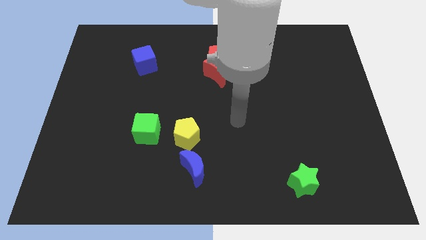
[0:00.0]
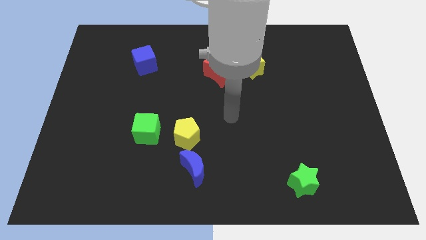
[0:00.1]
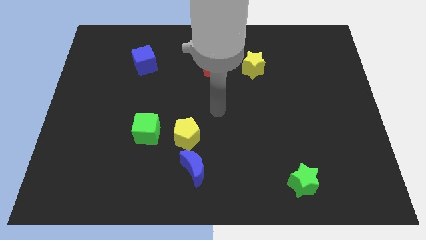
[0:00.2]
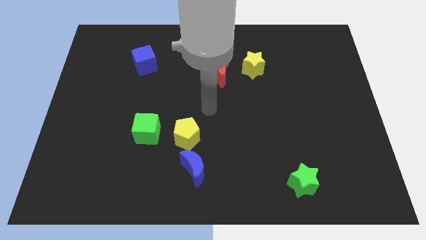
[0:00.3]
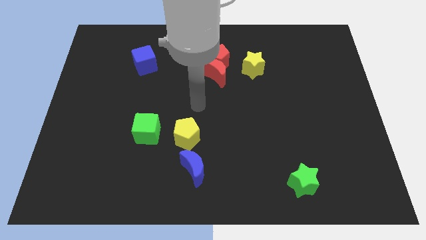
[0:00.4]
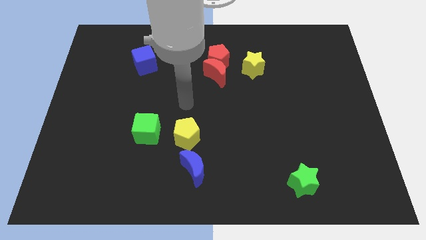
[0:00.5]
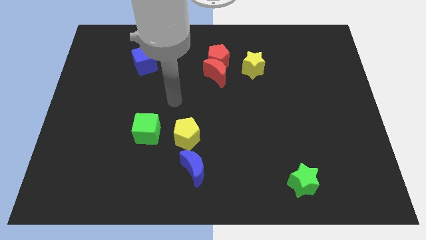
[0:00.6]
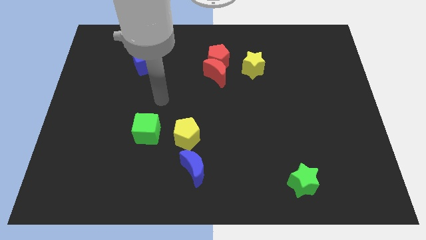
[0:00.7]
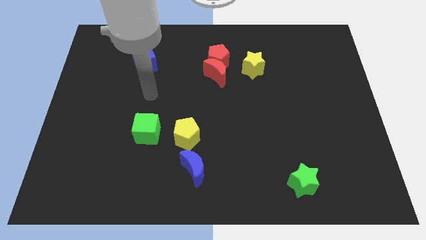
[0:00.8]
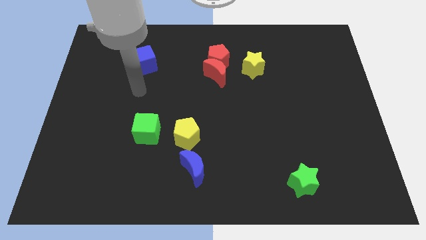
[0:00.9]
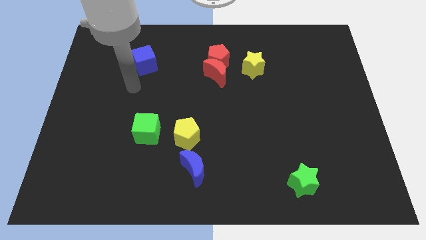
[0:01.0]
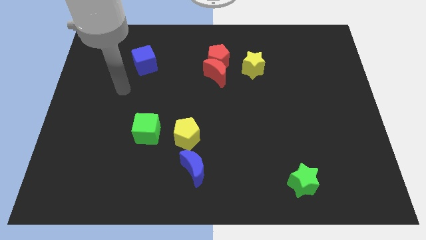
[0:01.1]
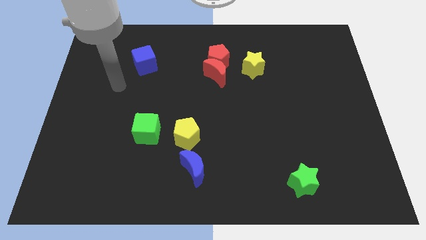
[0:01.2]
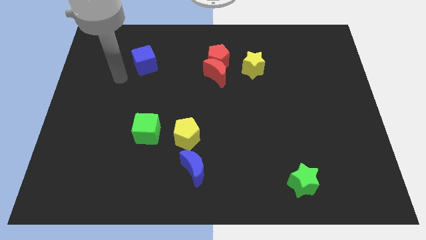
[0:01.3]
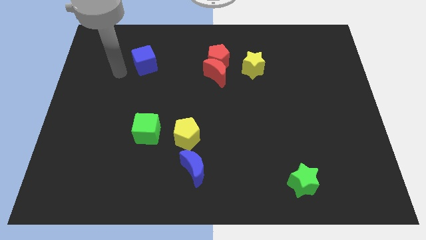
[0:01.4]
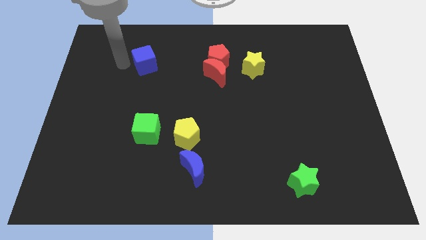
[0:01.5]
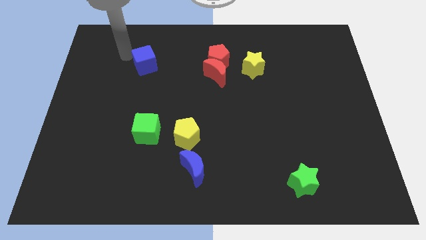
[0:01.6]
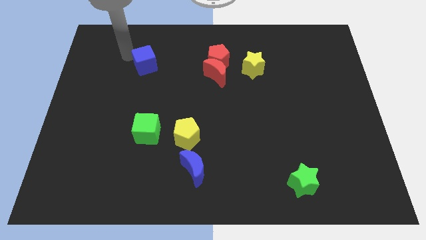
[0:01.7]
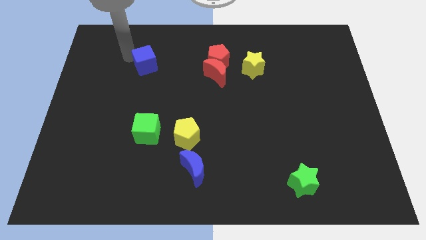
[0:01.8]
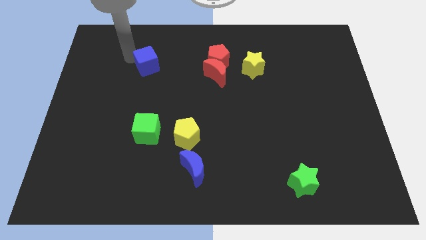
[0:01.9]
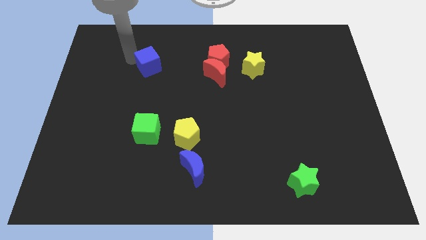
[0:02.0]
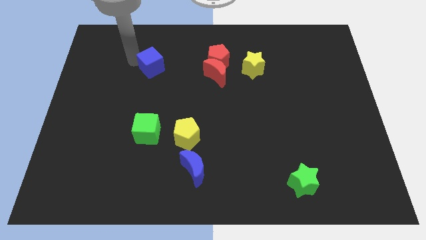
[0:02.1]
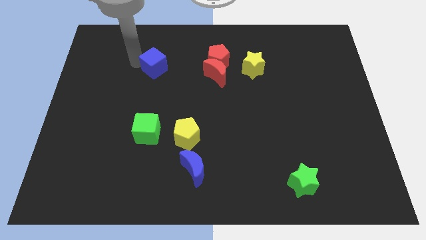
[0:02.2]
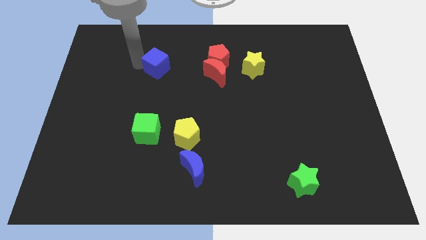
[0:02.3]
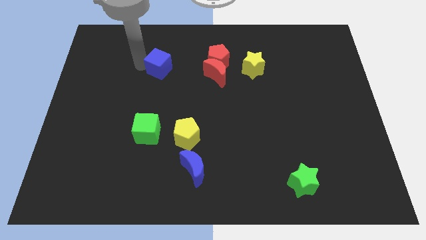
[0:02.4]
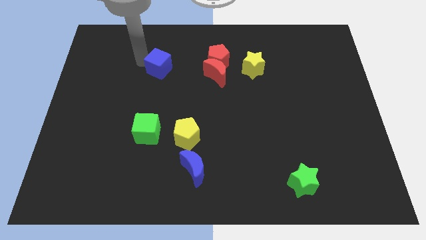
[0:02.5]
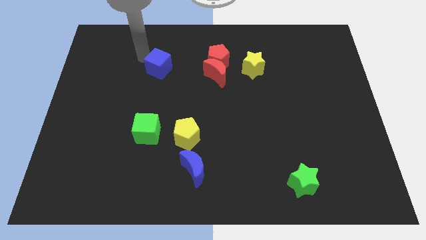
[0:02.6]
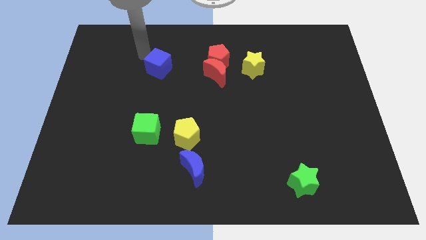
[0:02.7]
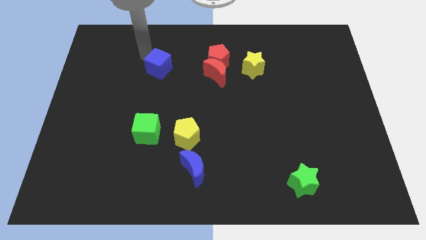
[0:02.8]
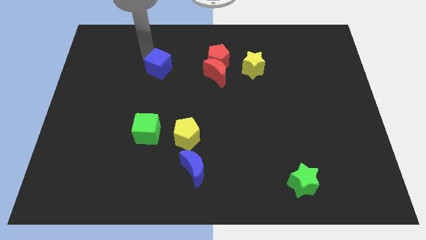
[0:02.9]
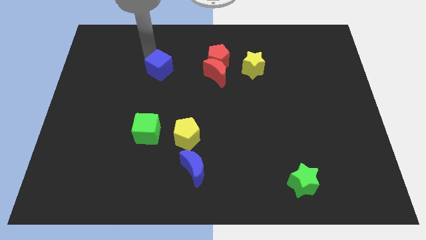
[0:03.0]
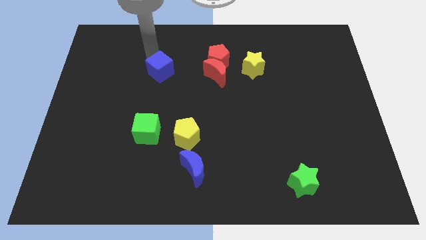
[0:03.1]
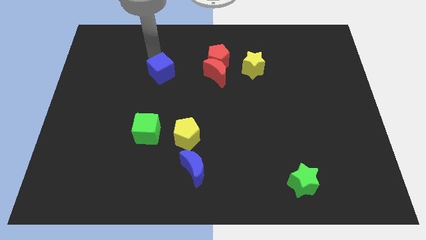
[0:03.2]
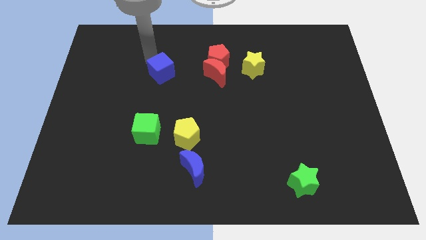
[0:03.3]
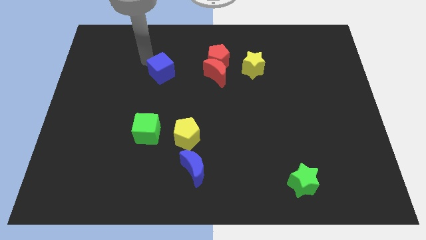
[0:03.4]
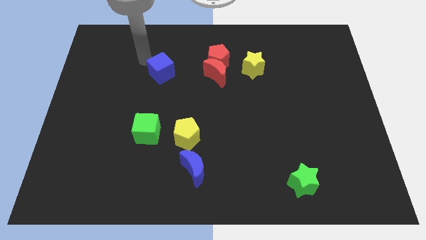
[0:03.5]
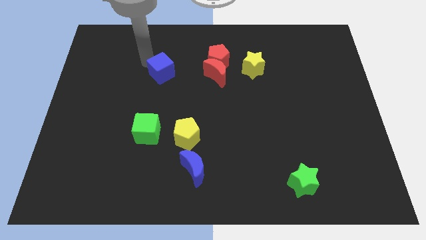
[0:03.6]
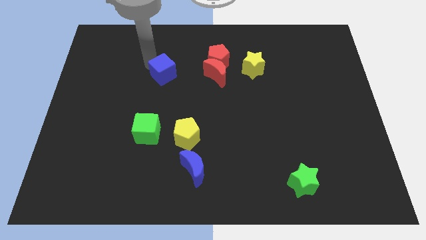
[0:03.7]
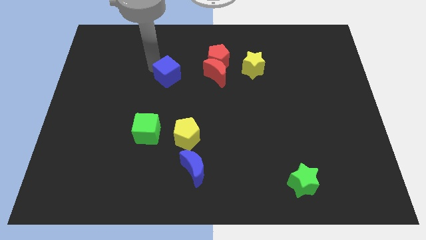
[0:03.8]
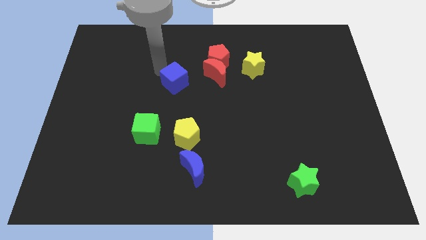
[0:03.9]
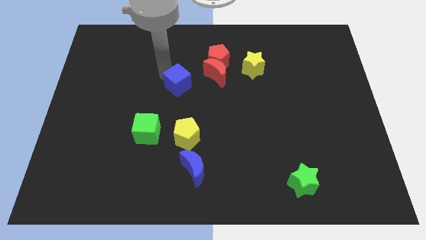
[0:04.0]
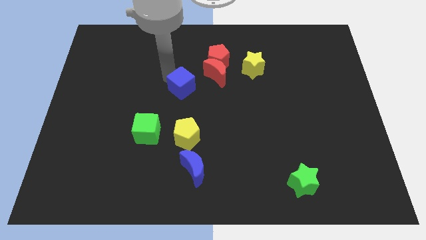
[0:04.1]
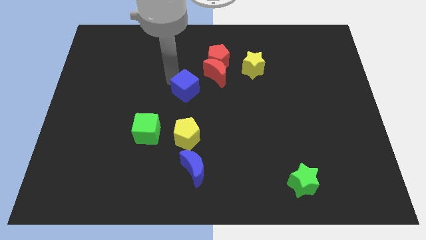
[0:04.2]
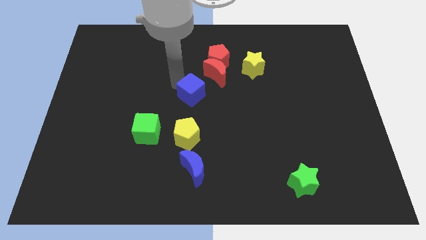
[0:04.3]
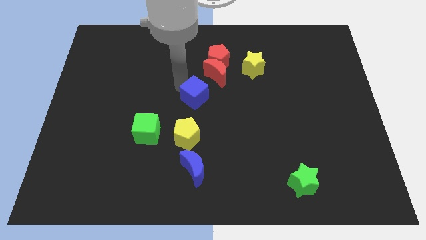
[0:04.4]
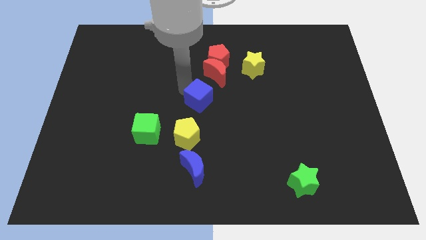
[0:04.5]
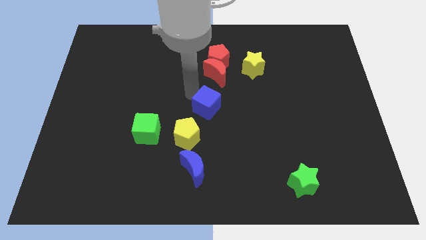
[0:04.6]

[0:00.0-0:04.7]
slide the blue cube diagonally down and right

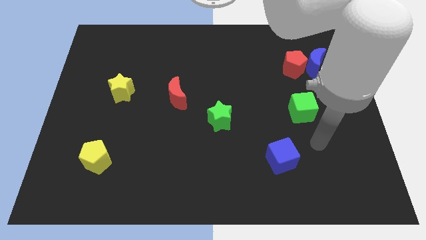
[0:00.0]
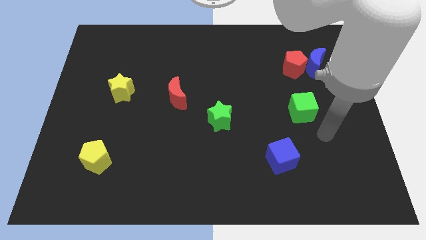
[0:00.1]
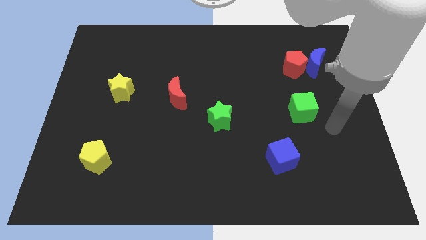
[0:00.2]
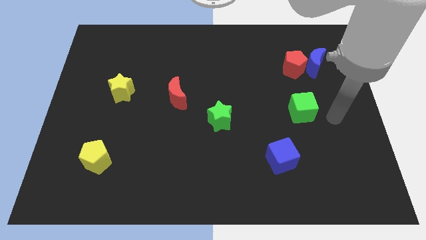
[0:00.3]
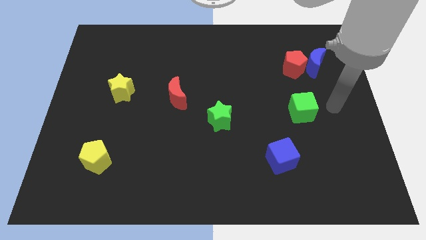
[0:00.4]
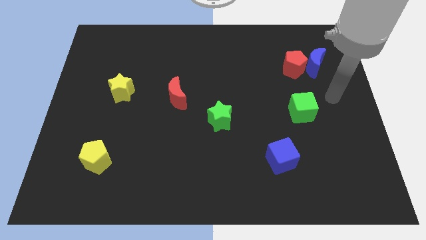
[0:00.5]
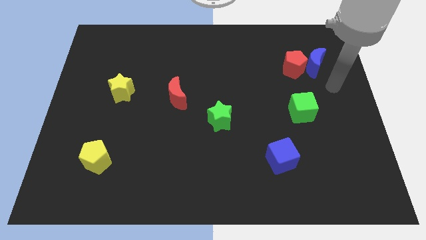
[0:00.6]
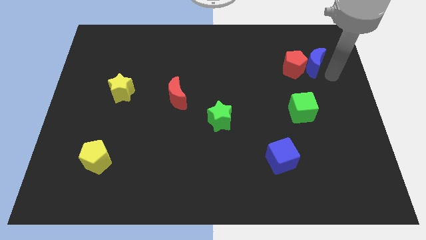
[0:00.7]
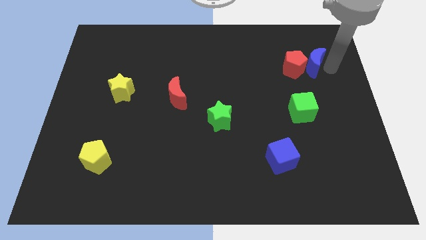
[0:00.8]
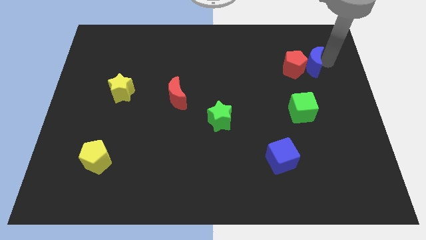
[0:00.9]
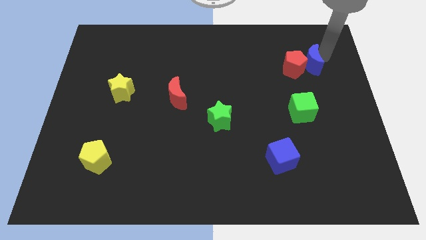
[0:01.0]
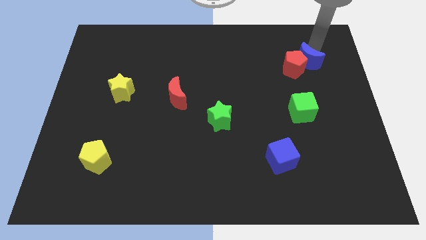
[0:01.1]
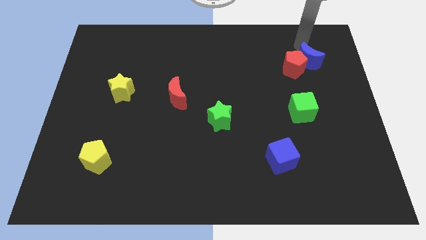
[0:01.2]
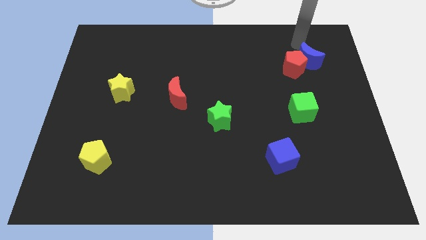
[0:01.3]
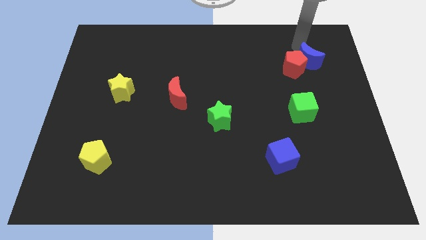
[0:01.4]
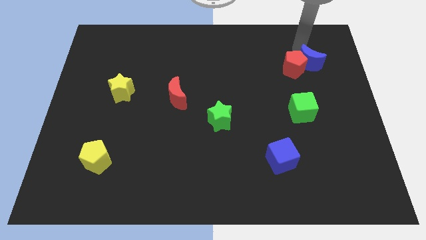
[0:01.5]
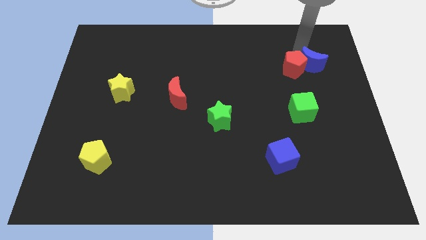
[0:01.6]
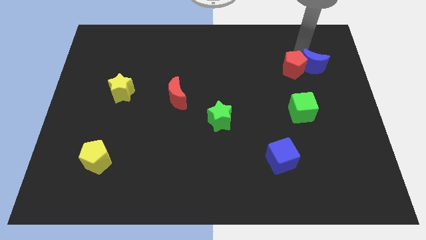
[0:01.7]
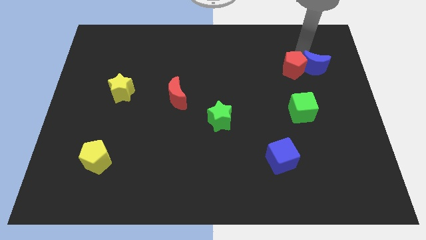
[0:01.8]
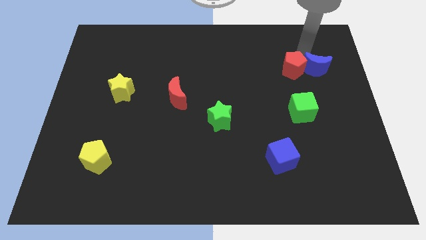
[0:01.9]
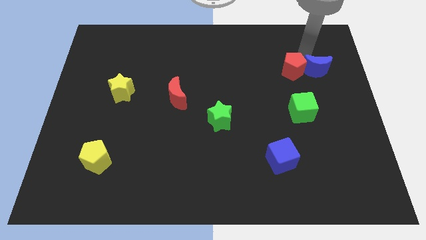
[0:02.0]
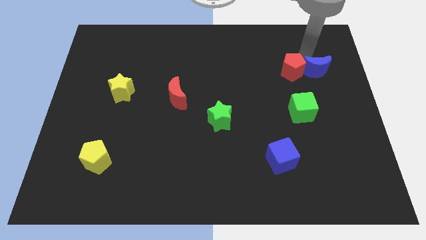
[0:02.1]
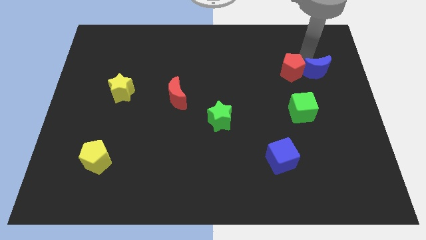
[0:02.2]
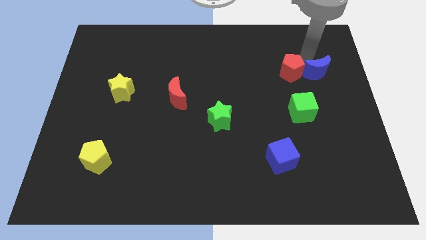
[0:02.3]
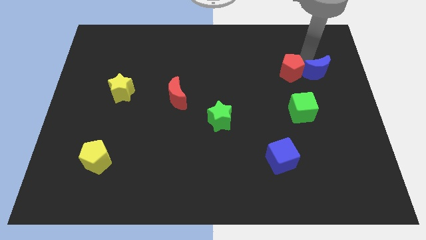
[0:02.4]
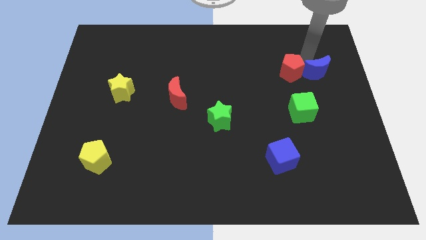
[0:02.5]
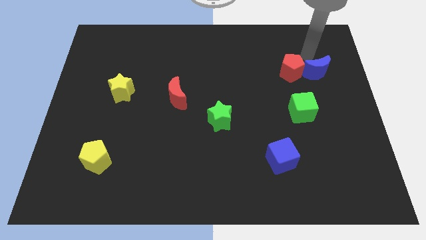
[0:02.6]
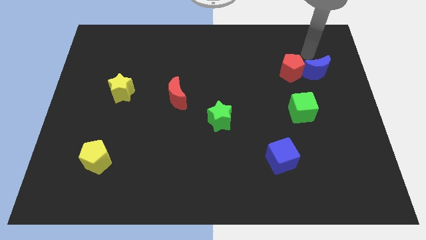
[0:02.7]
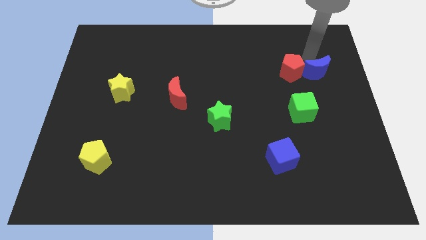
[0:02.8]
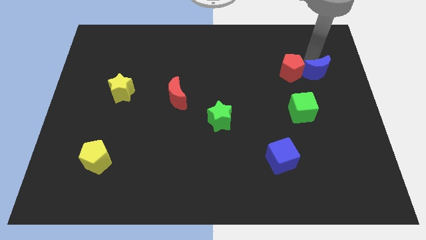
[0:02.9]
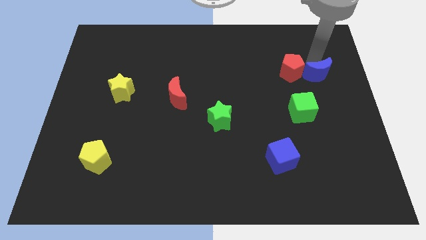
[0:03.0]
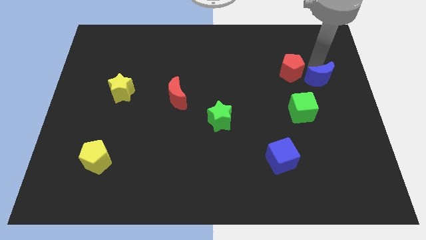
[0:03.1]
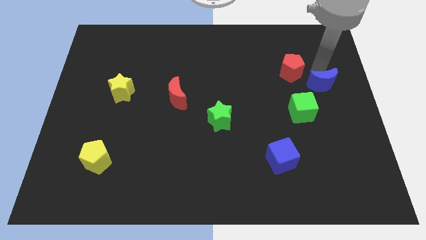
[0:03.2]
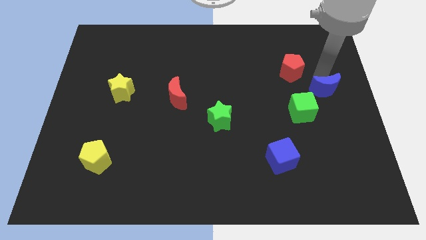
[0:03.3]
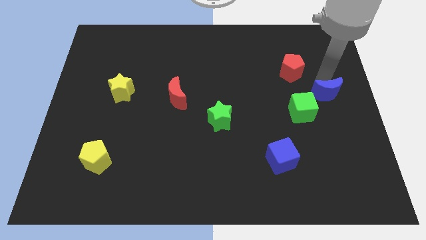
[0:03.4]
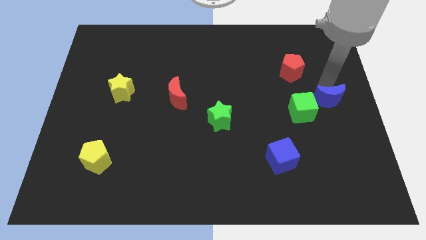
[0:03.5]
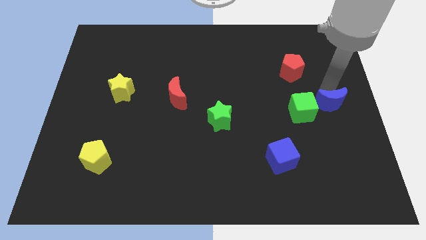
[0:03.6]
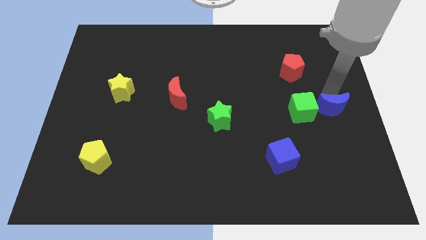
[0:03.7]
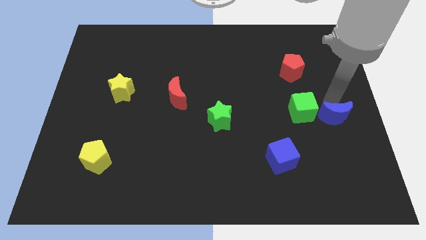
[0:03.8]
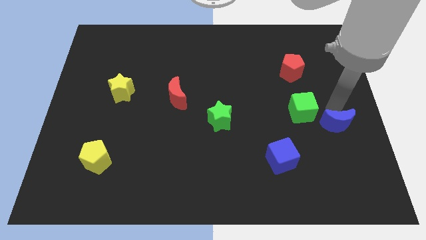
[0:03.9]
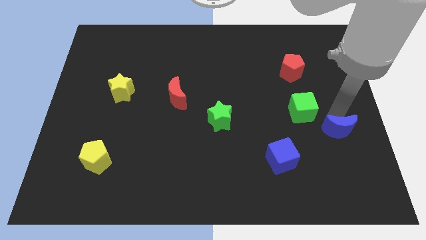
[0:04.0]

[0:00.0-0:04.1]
slide the blue moon down
